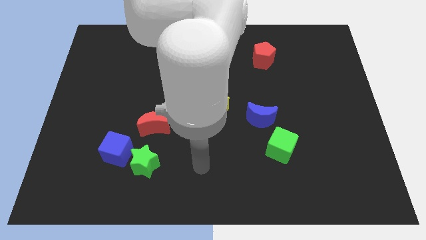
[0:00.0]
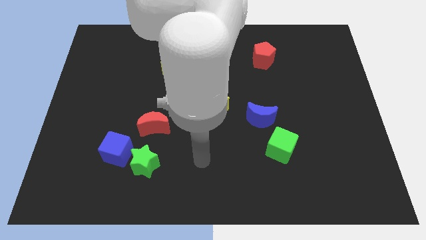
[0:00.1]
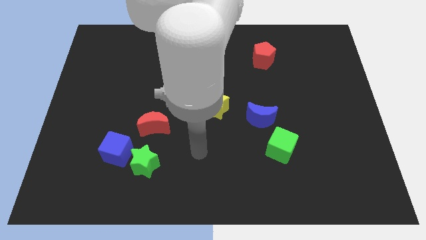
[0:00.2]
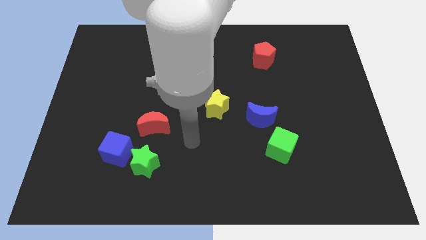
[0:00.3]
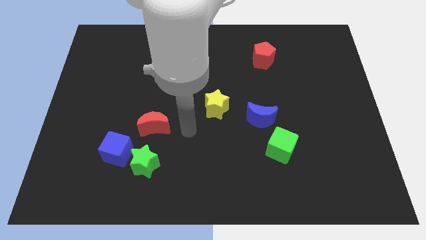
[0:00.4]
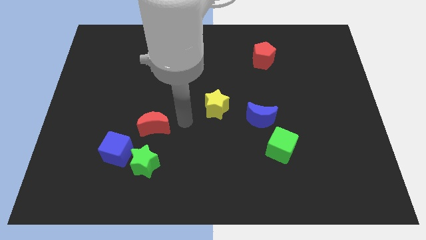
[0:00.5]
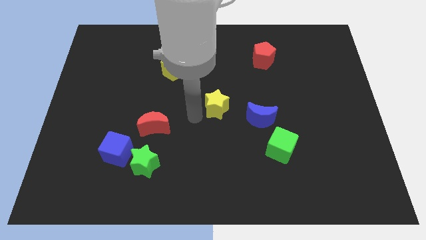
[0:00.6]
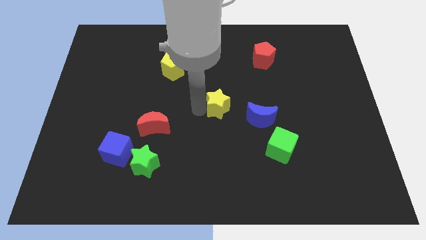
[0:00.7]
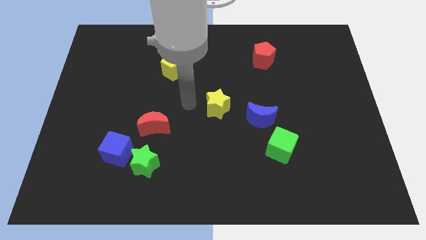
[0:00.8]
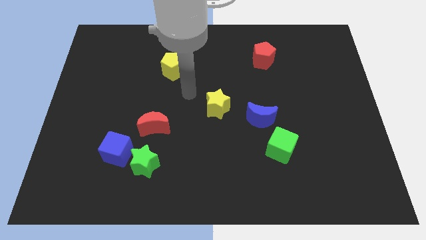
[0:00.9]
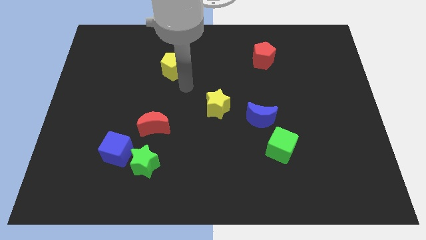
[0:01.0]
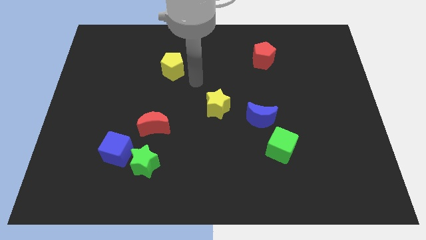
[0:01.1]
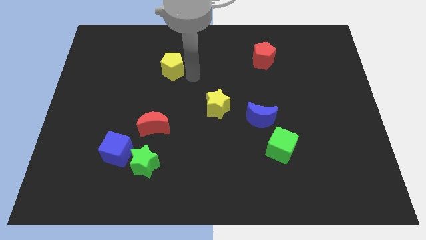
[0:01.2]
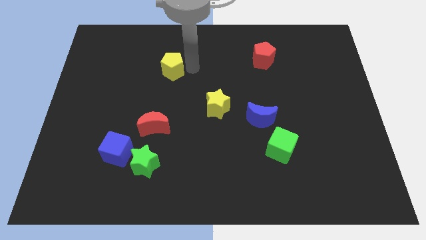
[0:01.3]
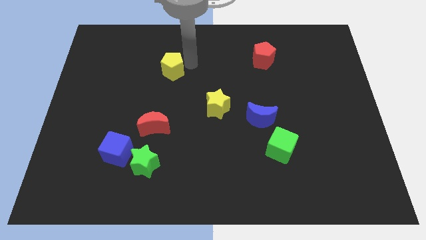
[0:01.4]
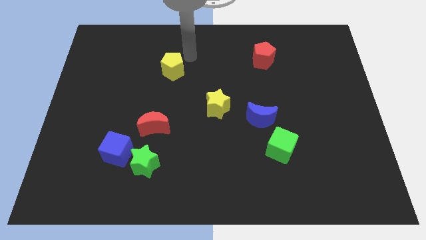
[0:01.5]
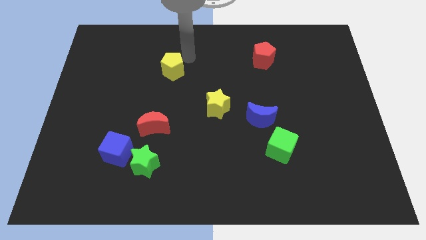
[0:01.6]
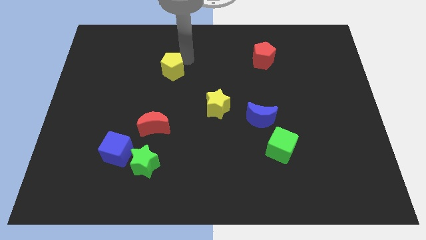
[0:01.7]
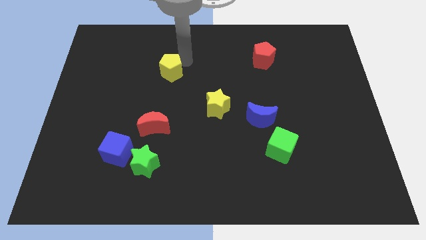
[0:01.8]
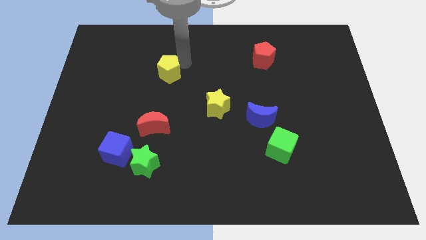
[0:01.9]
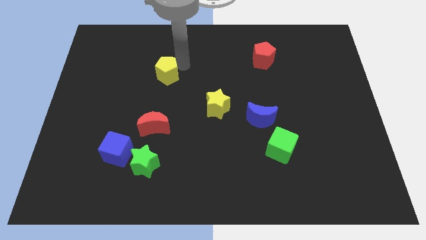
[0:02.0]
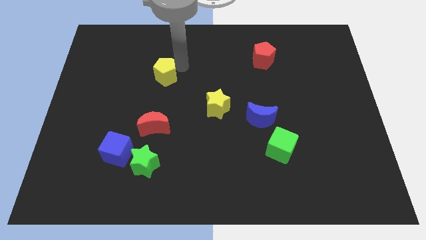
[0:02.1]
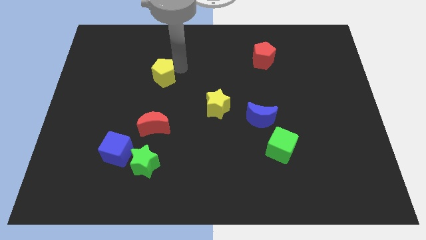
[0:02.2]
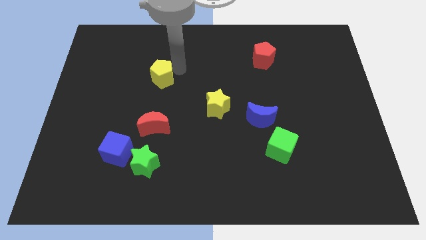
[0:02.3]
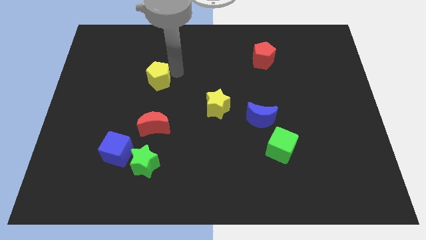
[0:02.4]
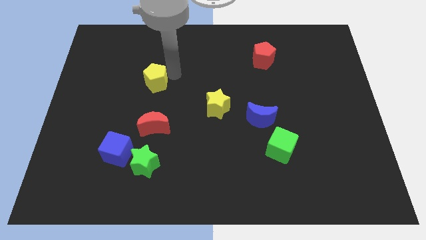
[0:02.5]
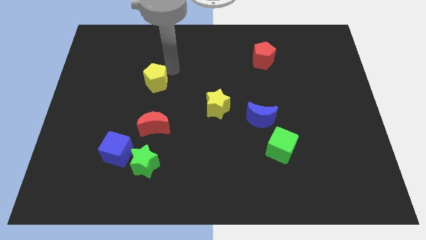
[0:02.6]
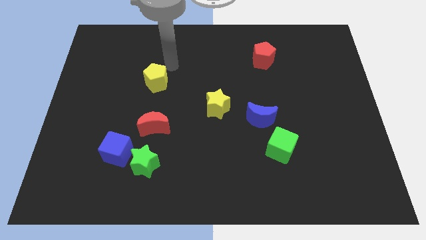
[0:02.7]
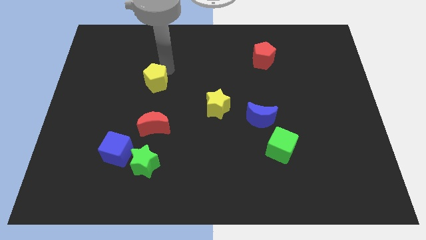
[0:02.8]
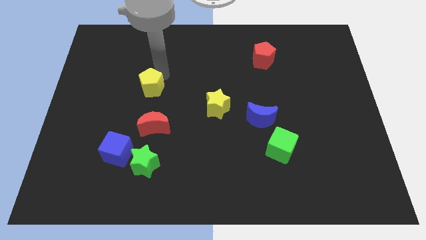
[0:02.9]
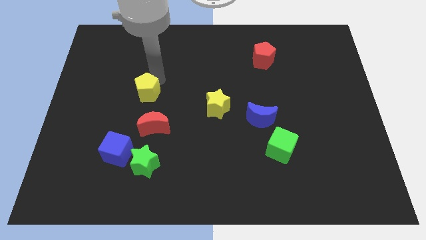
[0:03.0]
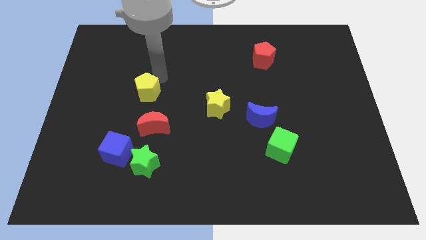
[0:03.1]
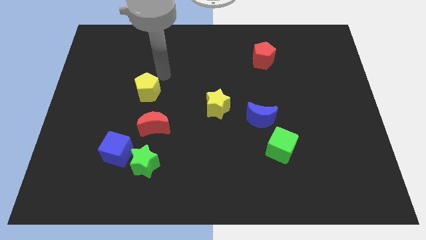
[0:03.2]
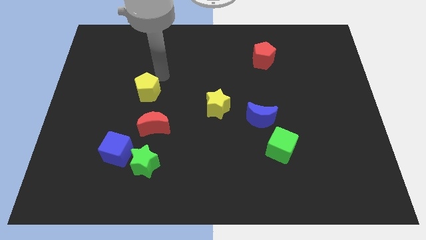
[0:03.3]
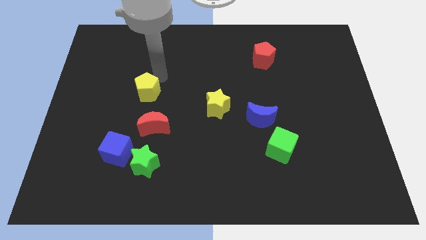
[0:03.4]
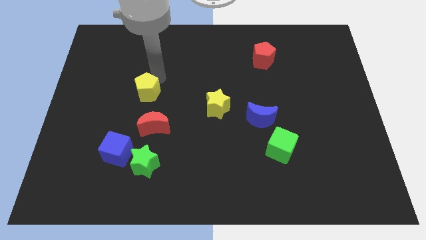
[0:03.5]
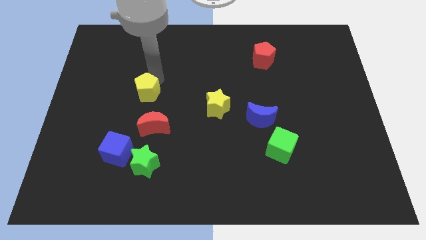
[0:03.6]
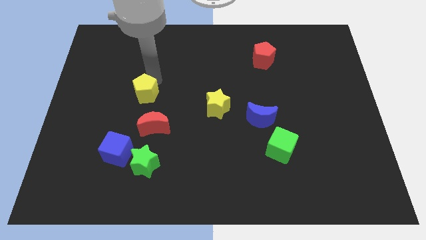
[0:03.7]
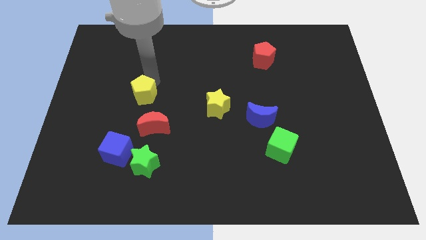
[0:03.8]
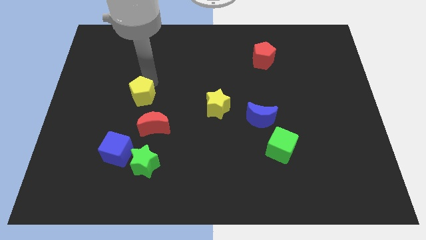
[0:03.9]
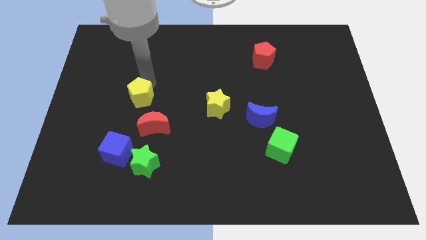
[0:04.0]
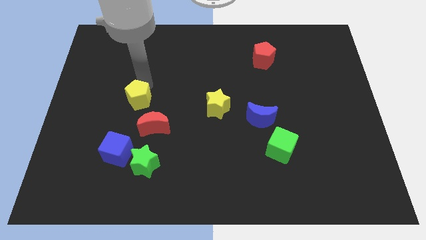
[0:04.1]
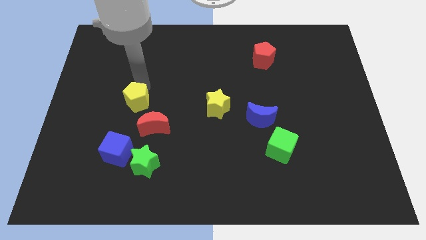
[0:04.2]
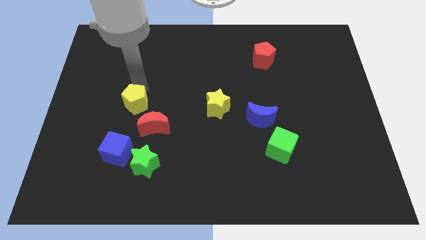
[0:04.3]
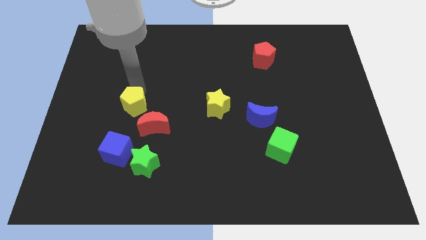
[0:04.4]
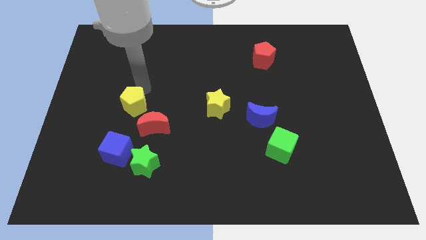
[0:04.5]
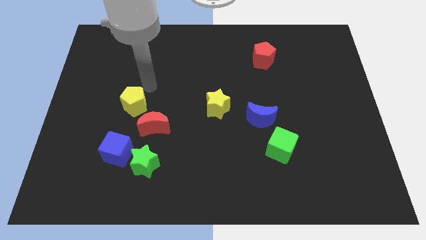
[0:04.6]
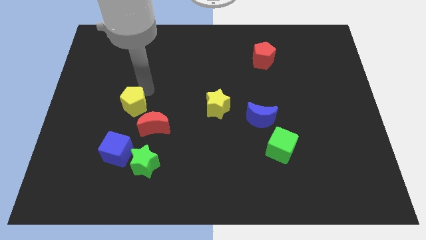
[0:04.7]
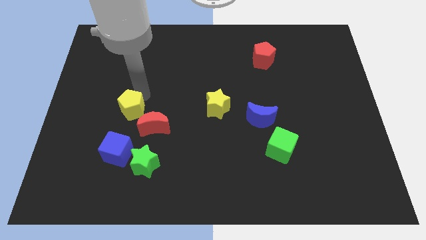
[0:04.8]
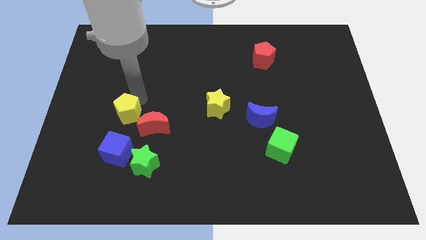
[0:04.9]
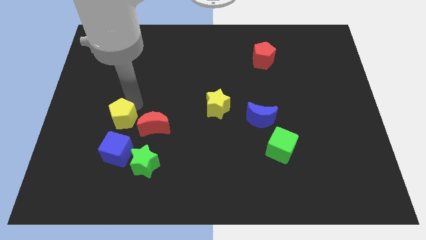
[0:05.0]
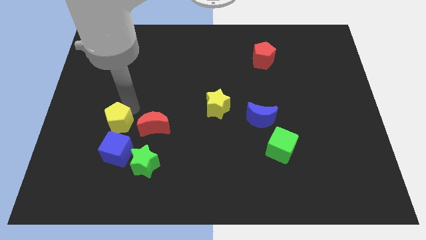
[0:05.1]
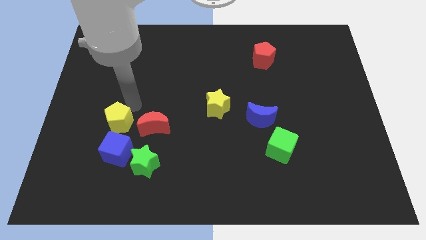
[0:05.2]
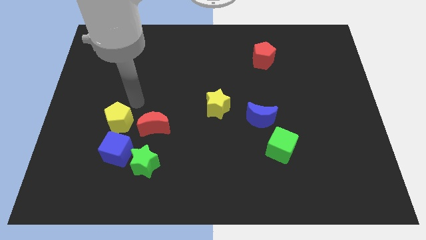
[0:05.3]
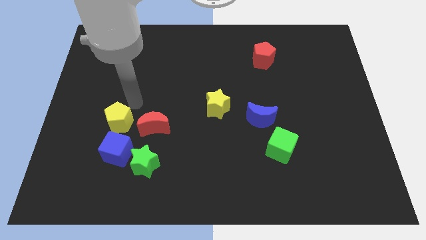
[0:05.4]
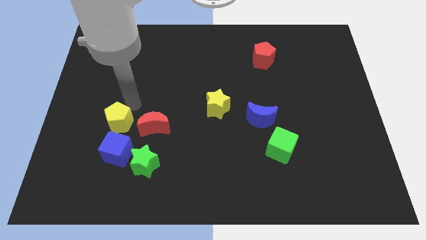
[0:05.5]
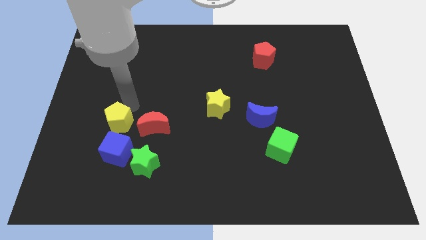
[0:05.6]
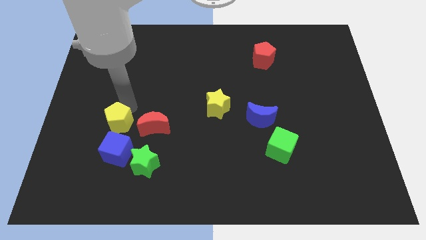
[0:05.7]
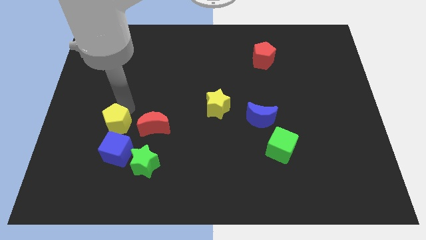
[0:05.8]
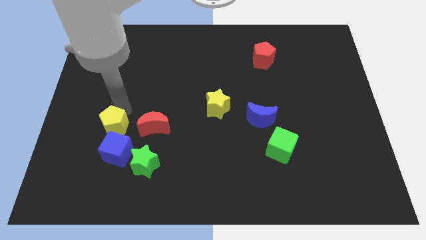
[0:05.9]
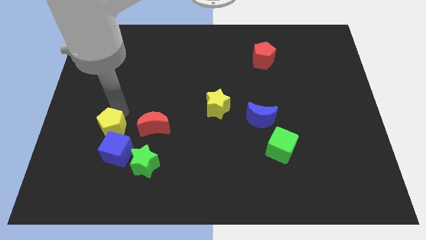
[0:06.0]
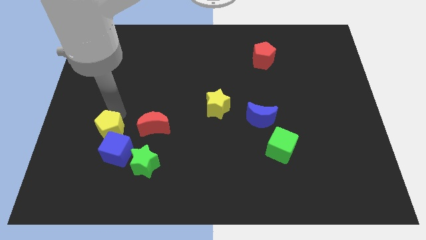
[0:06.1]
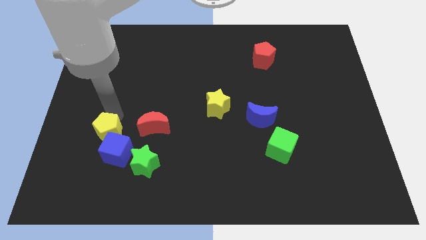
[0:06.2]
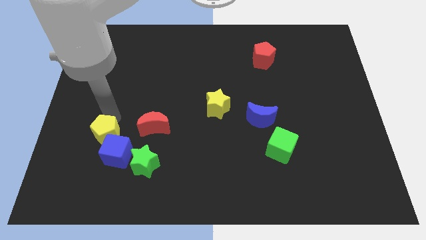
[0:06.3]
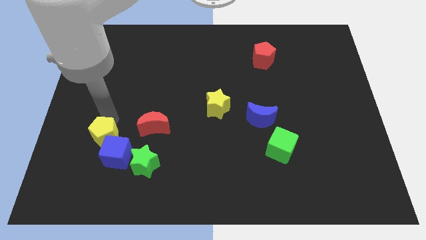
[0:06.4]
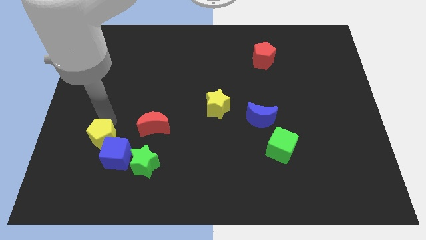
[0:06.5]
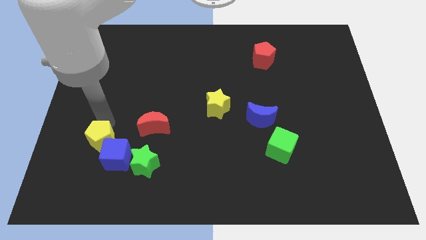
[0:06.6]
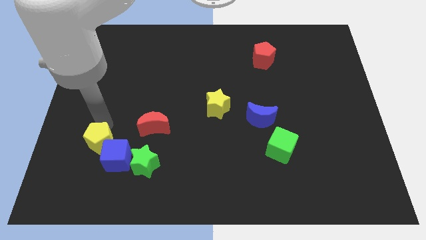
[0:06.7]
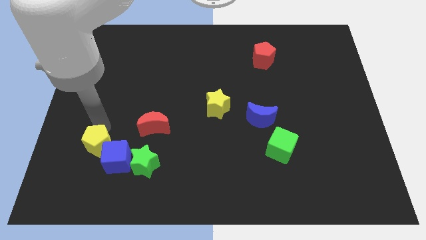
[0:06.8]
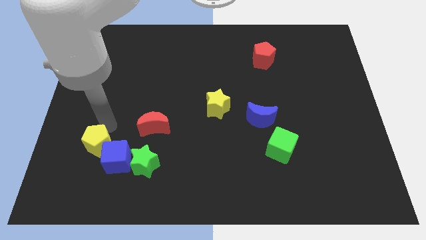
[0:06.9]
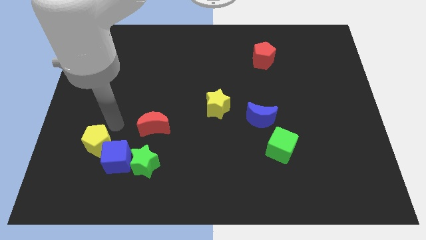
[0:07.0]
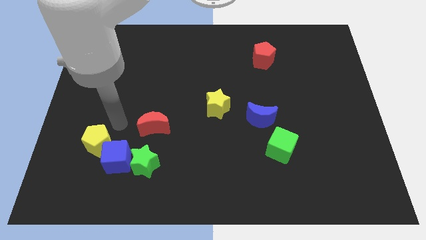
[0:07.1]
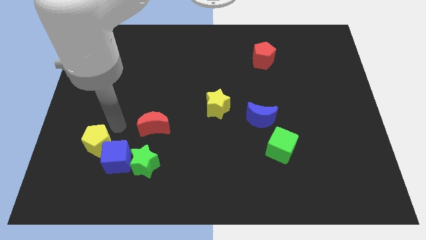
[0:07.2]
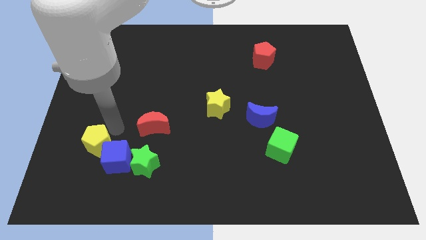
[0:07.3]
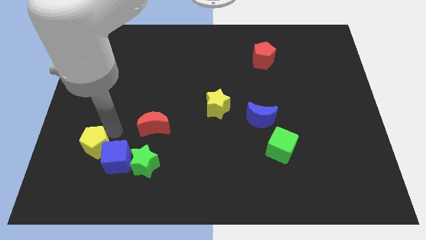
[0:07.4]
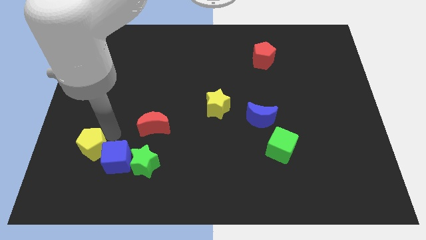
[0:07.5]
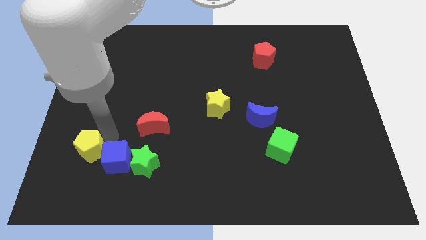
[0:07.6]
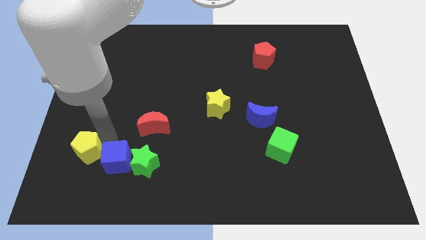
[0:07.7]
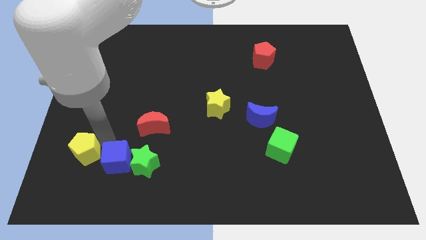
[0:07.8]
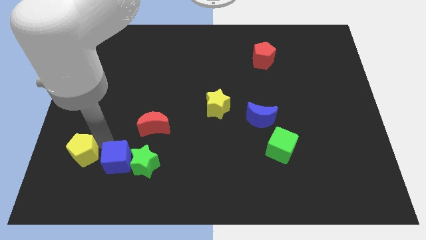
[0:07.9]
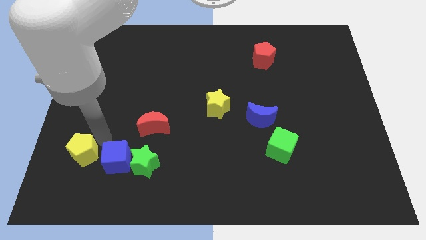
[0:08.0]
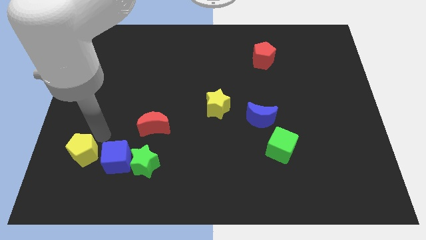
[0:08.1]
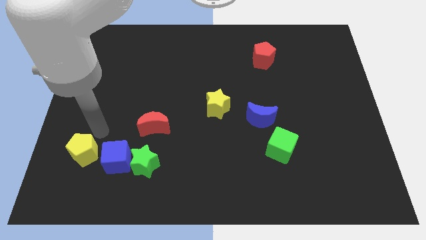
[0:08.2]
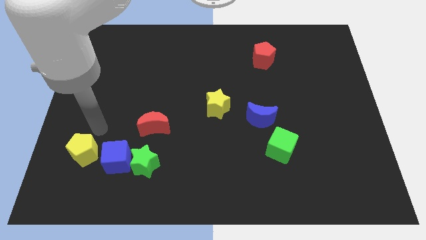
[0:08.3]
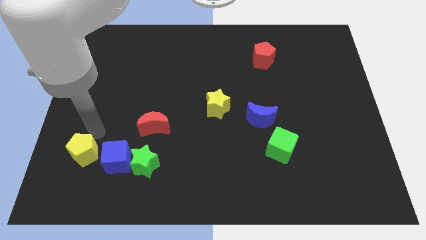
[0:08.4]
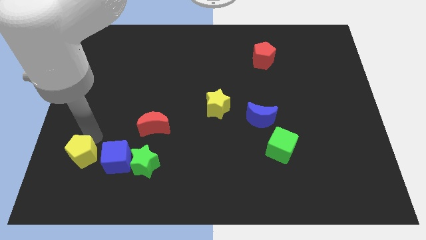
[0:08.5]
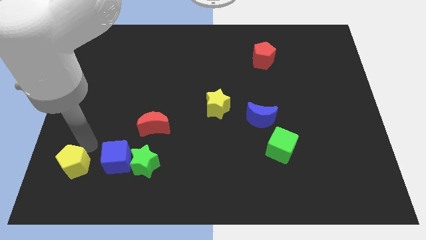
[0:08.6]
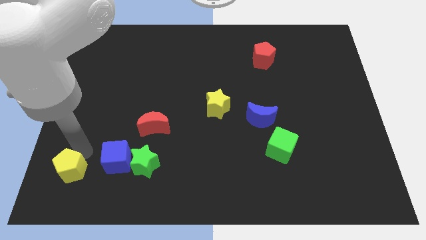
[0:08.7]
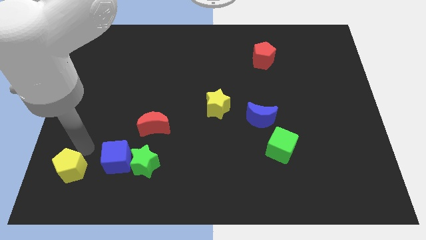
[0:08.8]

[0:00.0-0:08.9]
move the yellow pentagon to the bottom left corner
